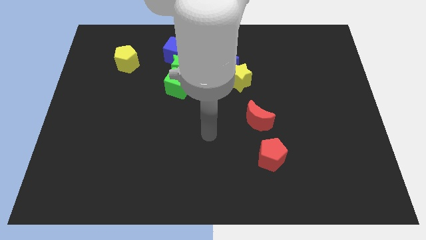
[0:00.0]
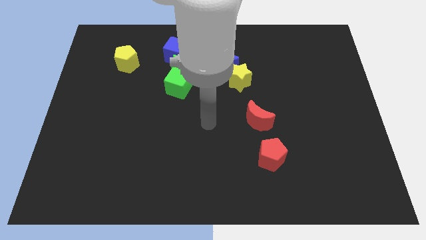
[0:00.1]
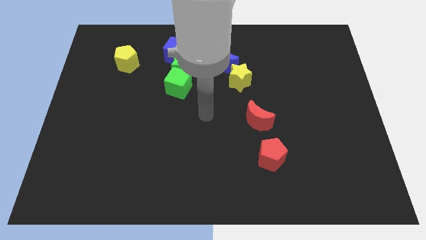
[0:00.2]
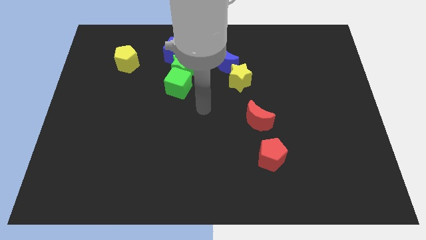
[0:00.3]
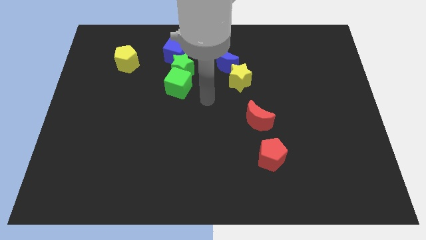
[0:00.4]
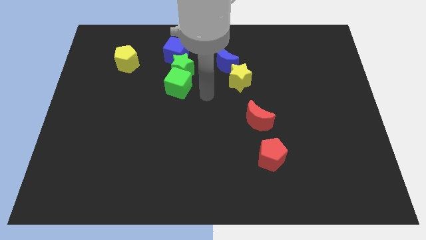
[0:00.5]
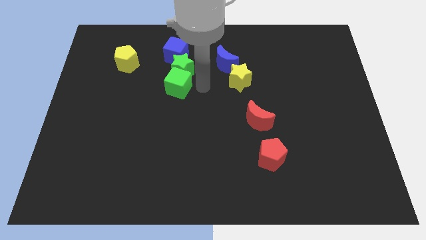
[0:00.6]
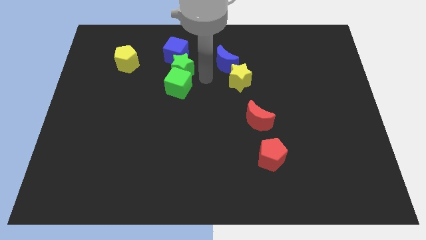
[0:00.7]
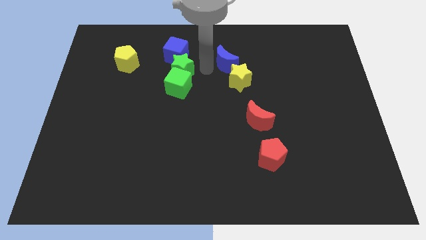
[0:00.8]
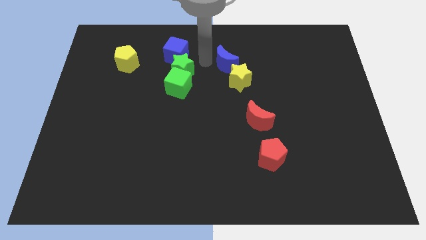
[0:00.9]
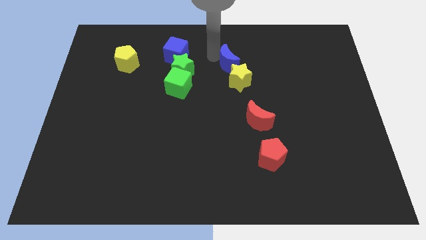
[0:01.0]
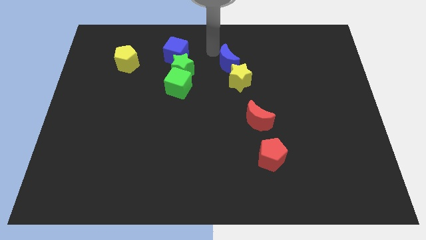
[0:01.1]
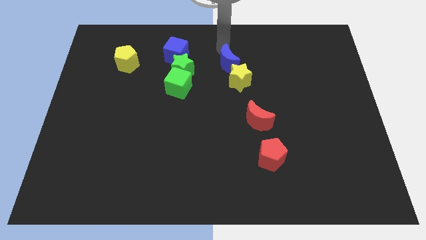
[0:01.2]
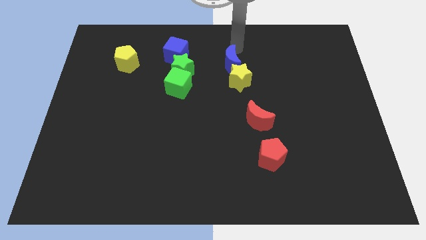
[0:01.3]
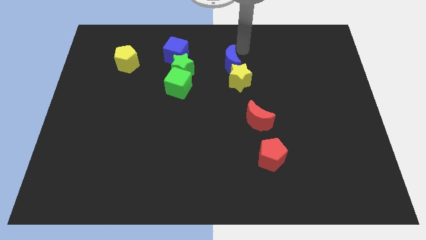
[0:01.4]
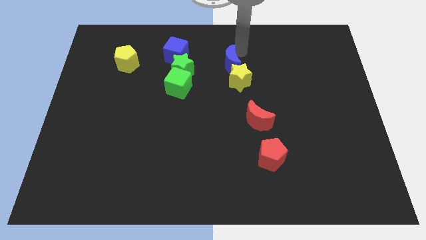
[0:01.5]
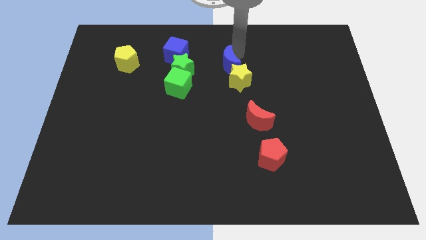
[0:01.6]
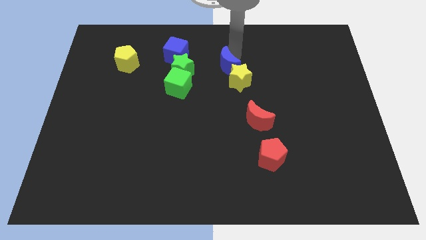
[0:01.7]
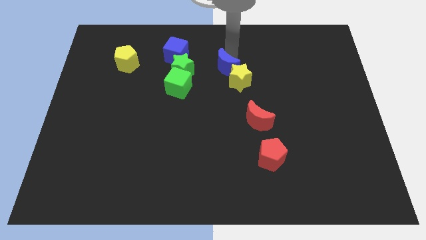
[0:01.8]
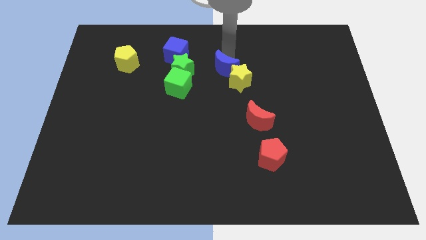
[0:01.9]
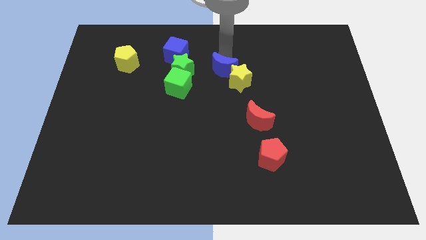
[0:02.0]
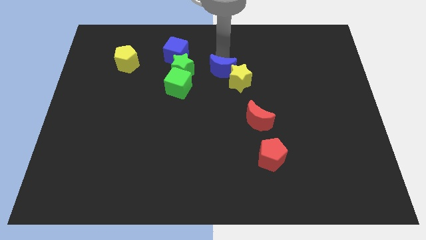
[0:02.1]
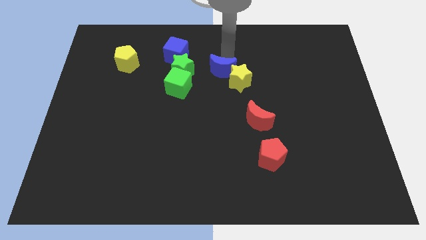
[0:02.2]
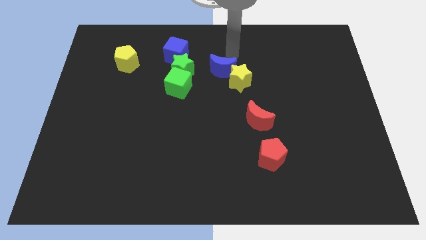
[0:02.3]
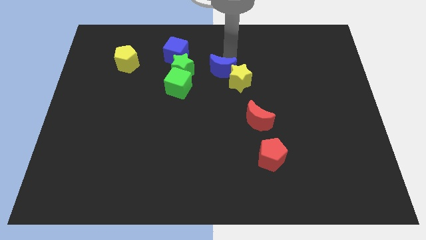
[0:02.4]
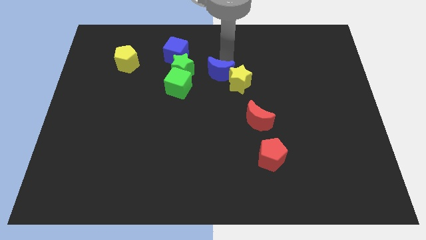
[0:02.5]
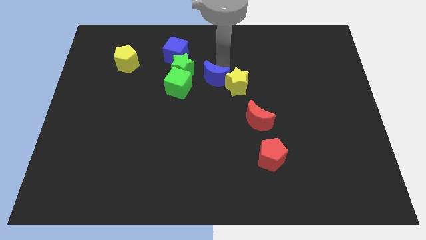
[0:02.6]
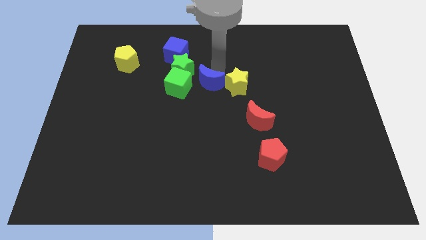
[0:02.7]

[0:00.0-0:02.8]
slightly push the blue moon down and then to the left

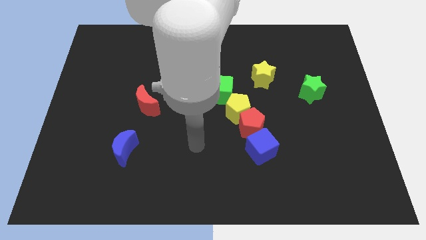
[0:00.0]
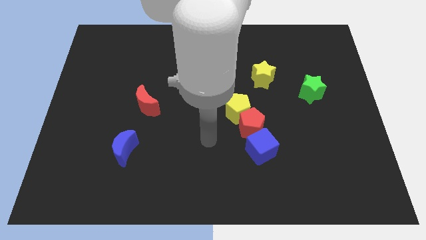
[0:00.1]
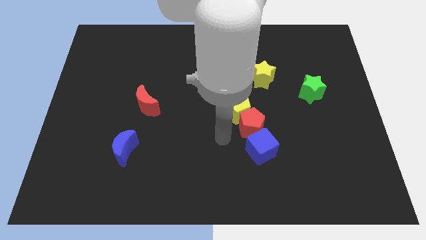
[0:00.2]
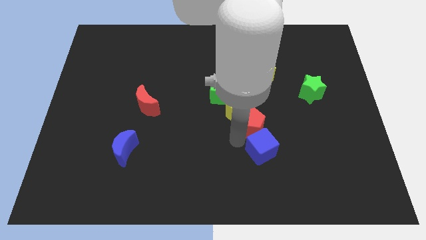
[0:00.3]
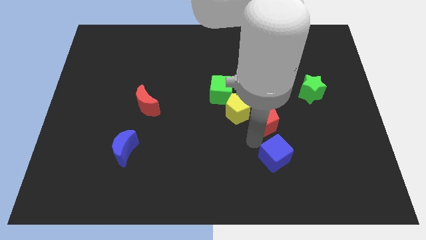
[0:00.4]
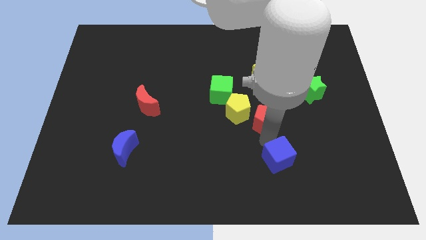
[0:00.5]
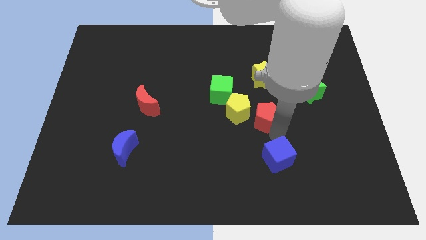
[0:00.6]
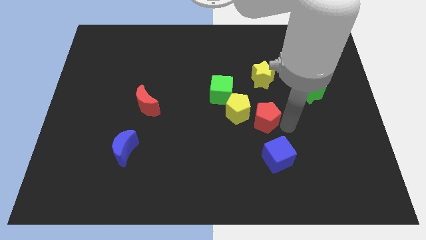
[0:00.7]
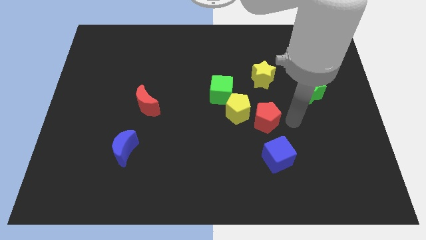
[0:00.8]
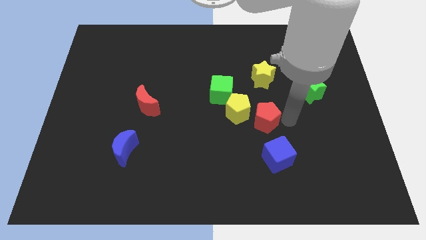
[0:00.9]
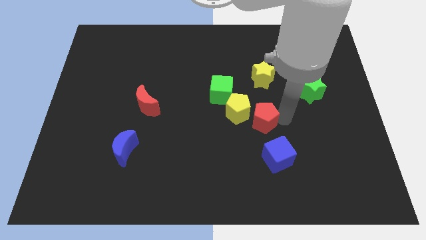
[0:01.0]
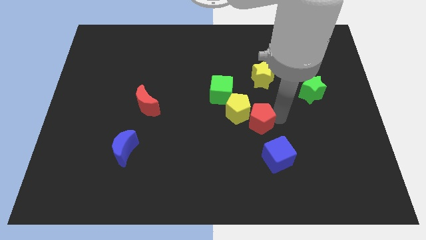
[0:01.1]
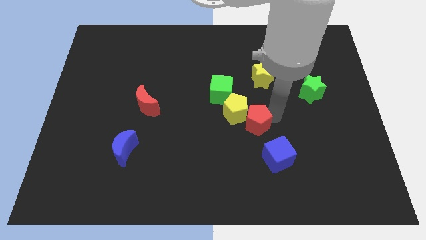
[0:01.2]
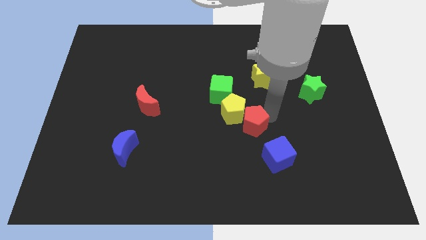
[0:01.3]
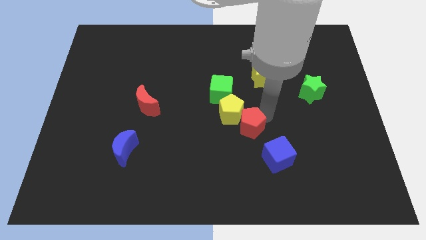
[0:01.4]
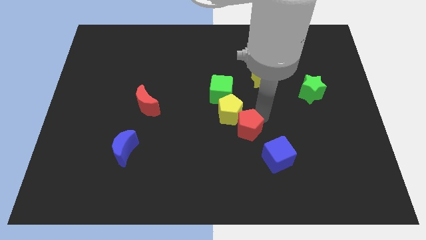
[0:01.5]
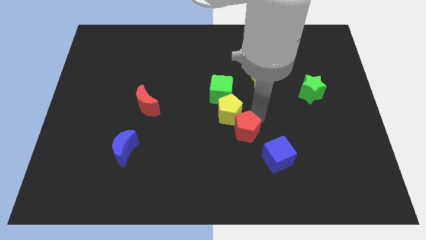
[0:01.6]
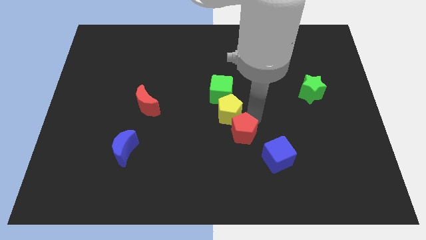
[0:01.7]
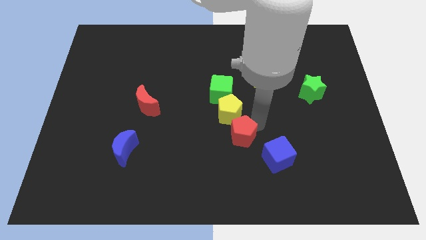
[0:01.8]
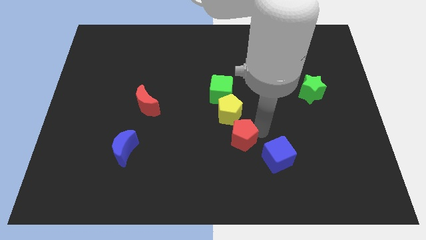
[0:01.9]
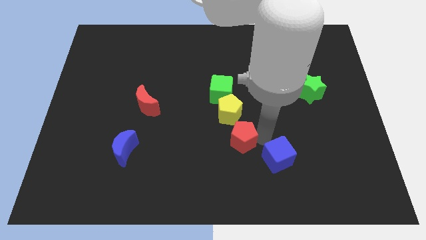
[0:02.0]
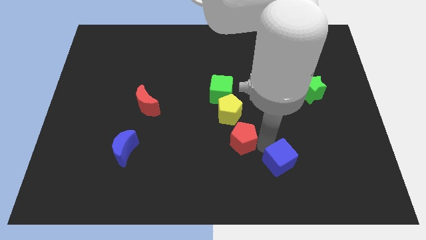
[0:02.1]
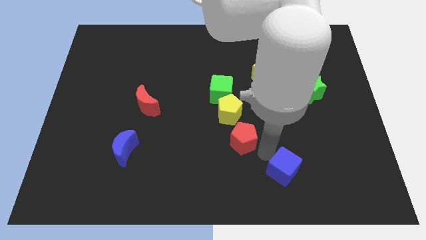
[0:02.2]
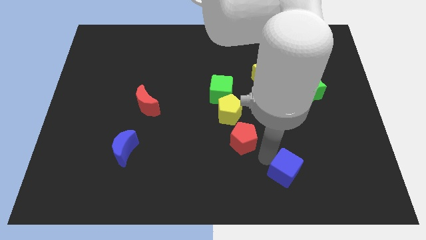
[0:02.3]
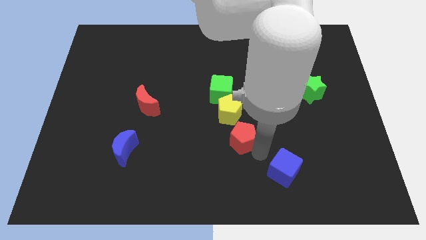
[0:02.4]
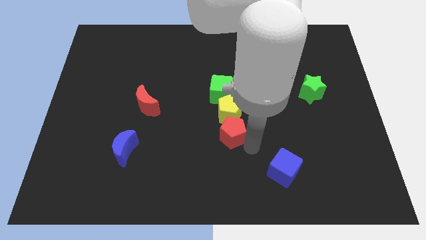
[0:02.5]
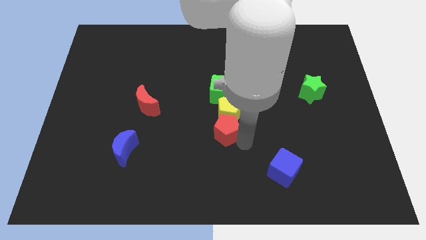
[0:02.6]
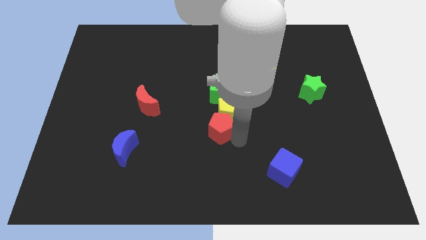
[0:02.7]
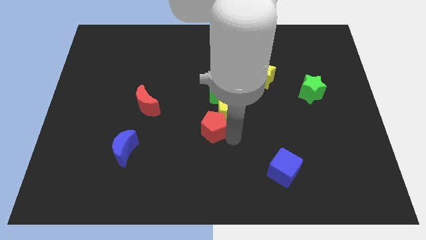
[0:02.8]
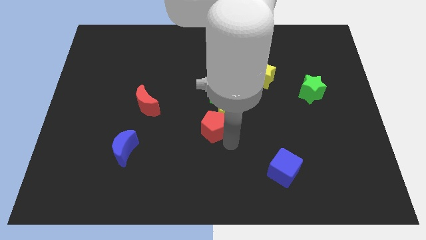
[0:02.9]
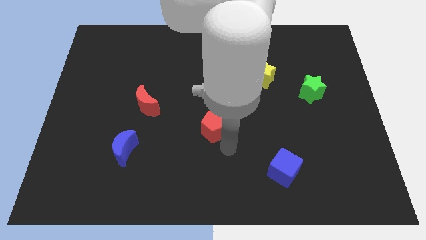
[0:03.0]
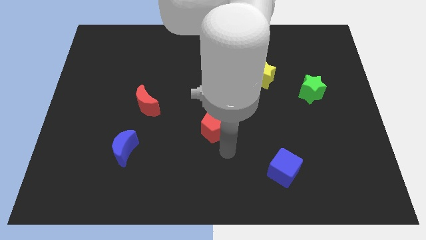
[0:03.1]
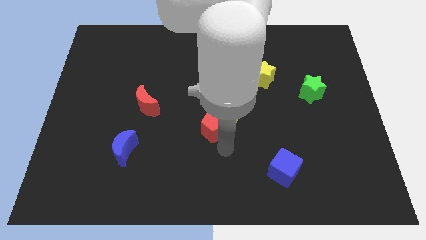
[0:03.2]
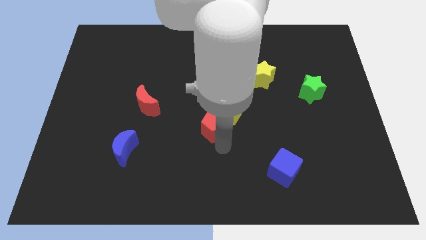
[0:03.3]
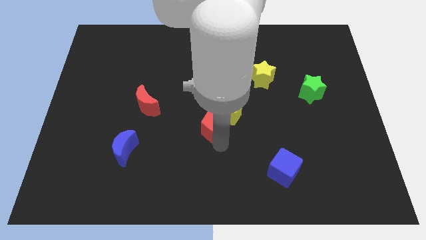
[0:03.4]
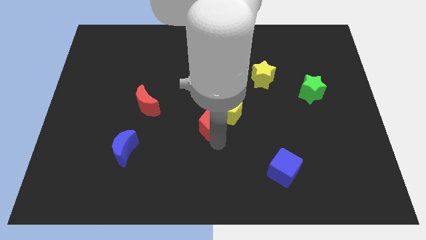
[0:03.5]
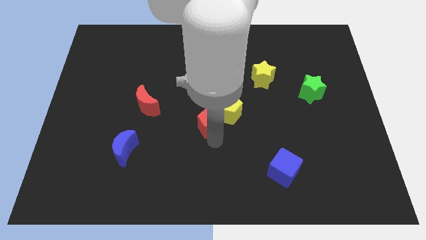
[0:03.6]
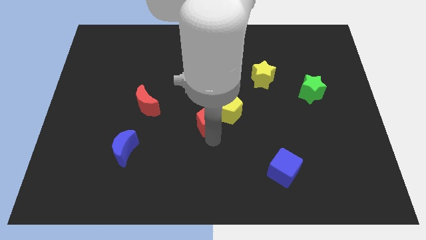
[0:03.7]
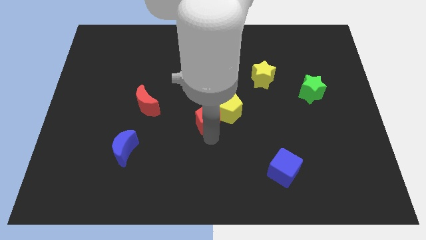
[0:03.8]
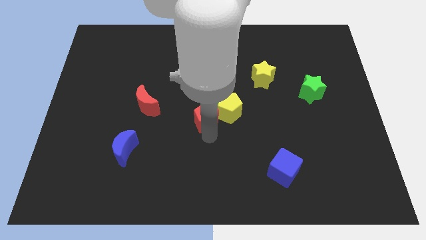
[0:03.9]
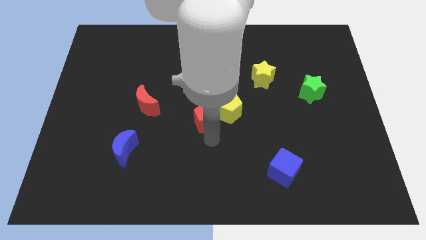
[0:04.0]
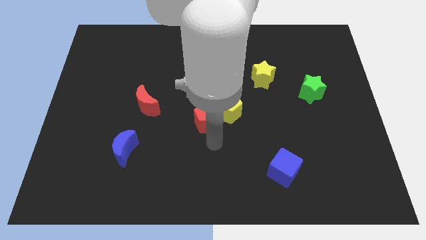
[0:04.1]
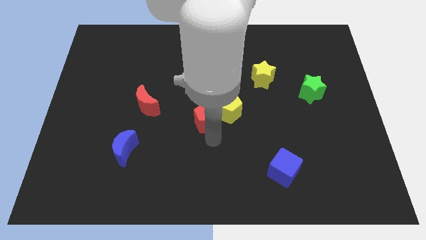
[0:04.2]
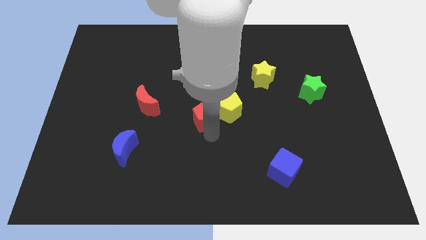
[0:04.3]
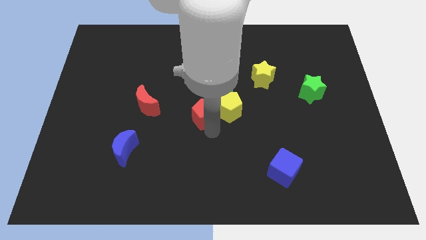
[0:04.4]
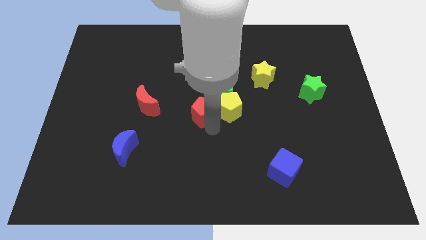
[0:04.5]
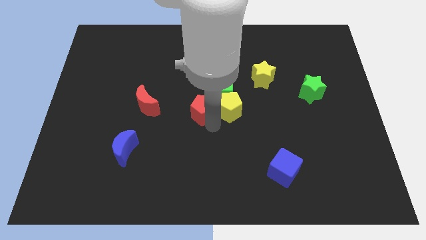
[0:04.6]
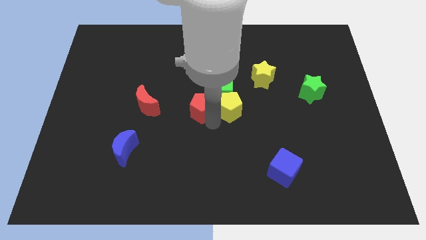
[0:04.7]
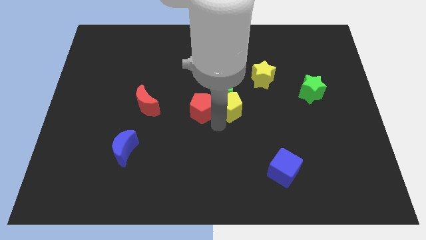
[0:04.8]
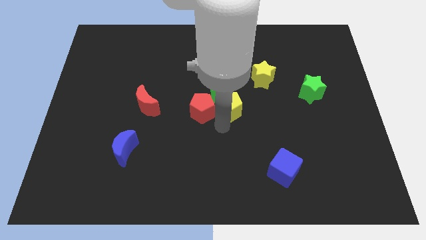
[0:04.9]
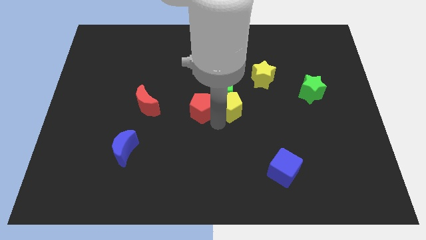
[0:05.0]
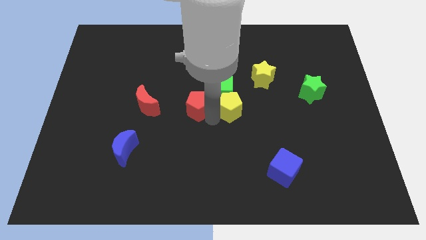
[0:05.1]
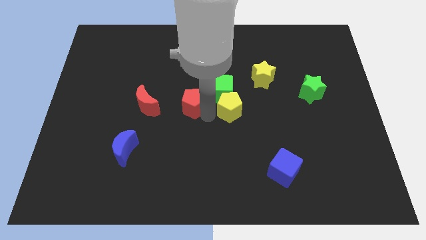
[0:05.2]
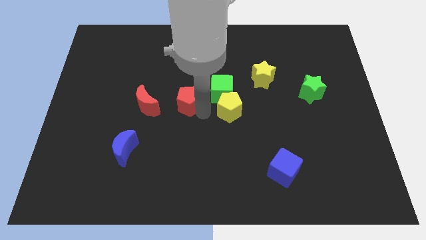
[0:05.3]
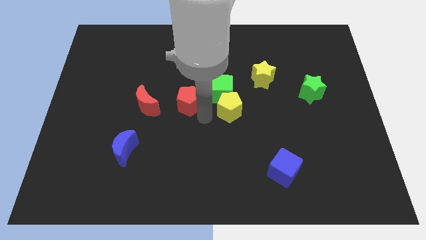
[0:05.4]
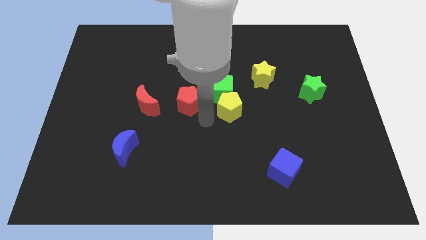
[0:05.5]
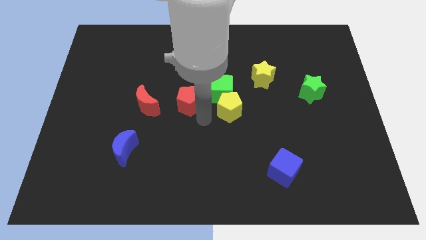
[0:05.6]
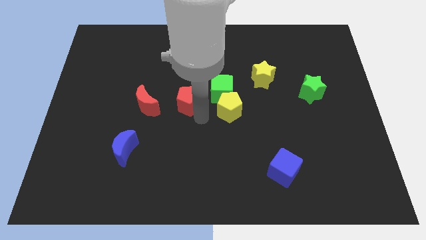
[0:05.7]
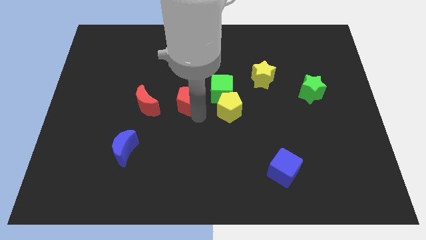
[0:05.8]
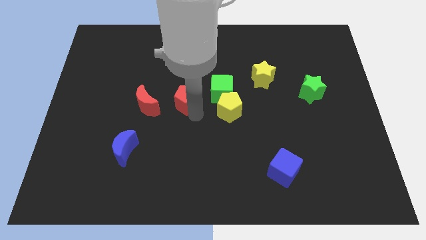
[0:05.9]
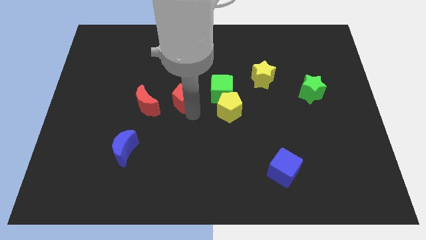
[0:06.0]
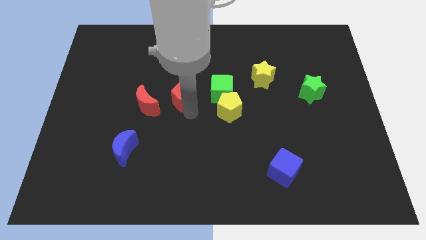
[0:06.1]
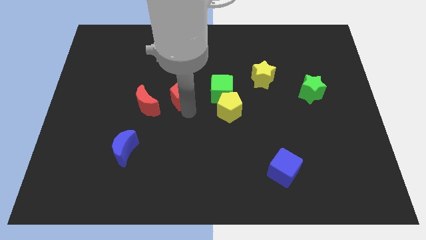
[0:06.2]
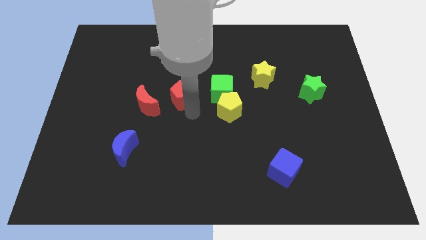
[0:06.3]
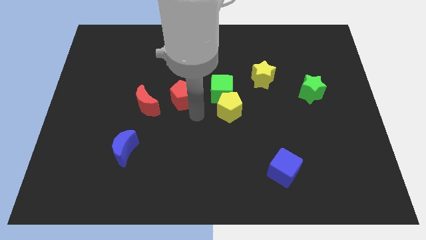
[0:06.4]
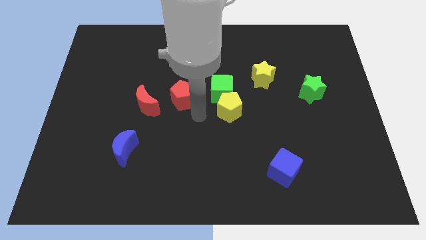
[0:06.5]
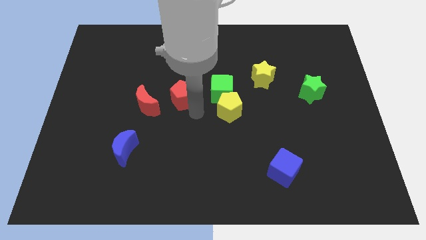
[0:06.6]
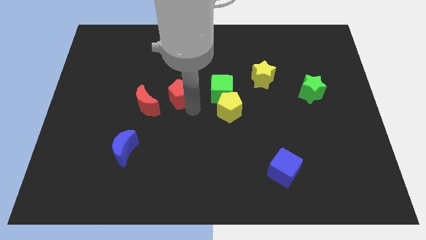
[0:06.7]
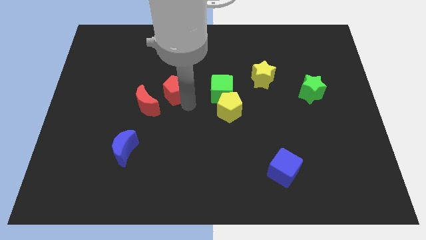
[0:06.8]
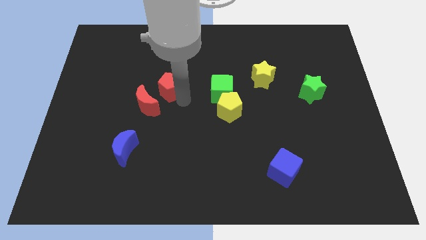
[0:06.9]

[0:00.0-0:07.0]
move the red pentagon upwards and to the left
